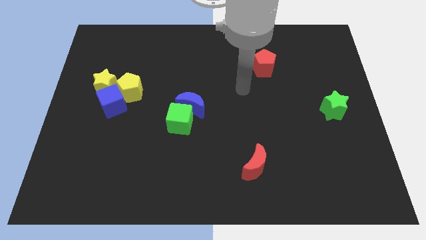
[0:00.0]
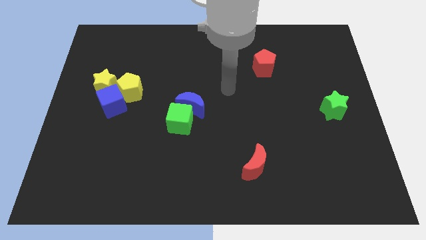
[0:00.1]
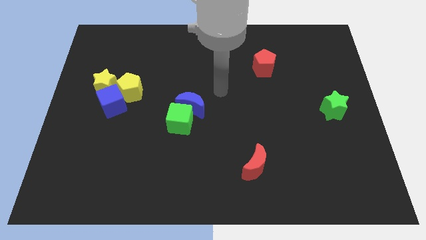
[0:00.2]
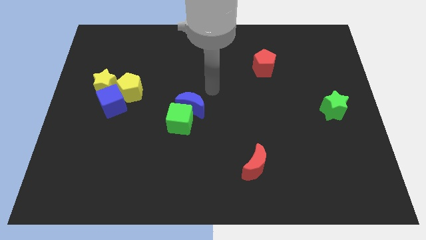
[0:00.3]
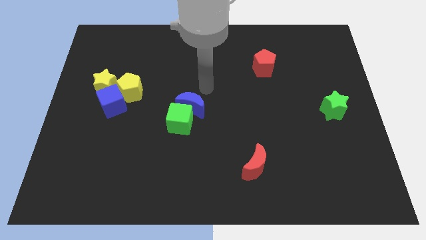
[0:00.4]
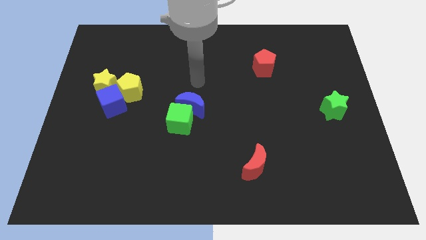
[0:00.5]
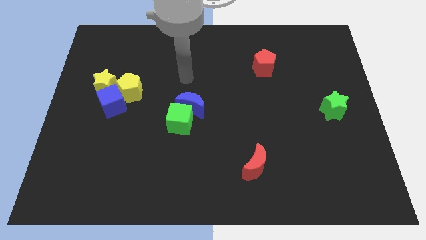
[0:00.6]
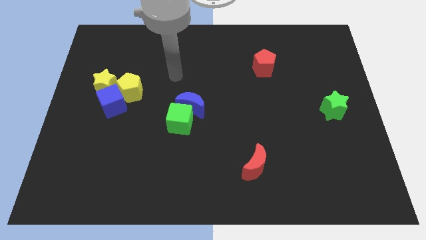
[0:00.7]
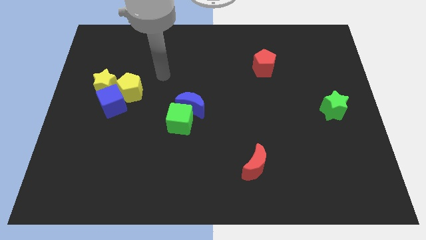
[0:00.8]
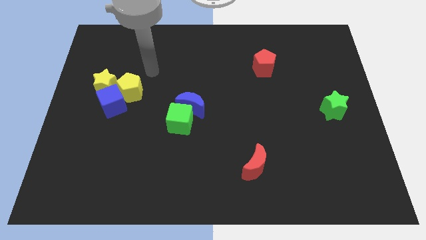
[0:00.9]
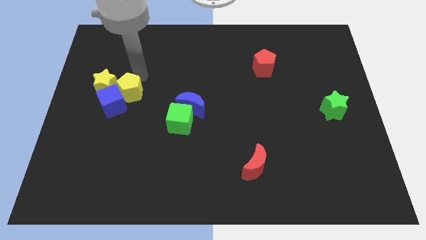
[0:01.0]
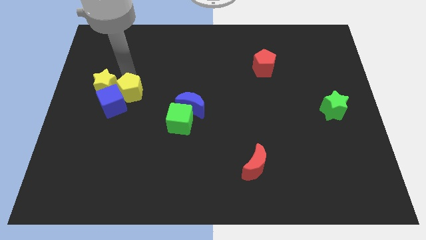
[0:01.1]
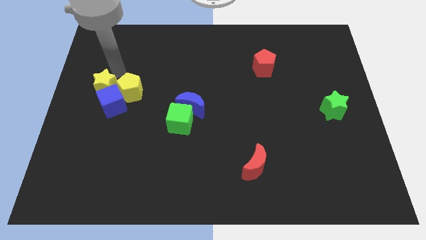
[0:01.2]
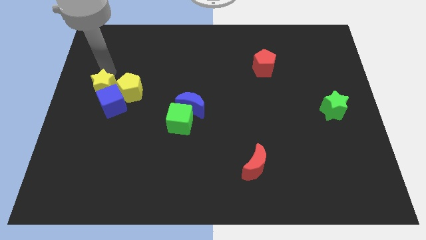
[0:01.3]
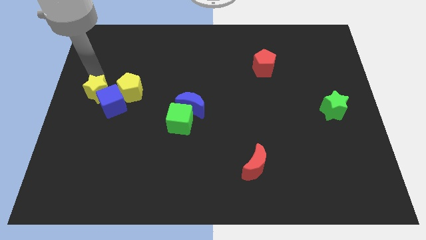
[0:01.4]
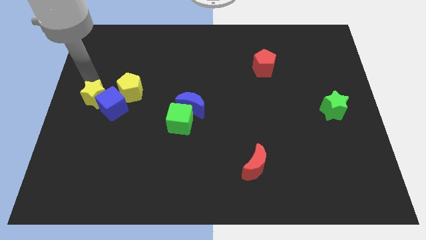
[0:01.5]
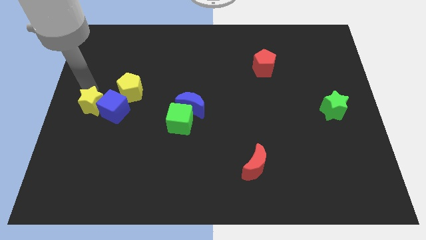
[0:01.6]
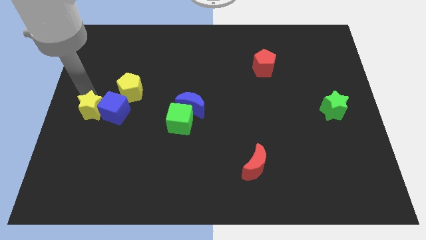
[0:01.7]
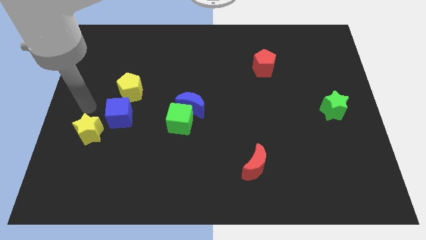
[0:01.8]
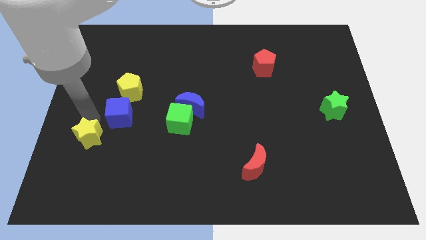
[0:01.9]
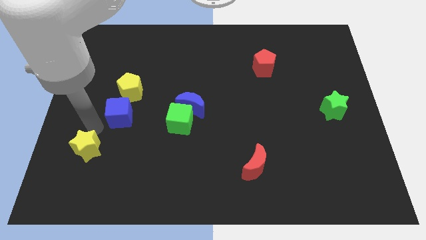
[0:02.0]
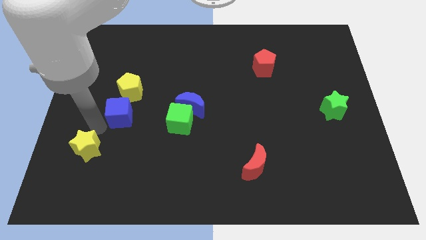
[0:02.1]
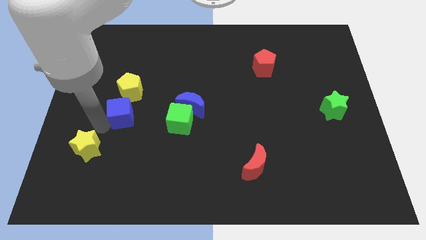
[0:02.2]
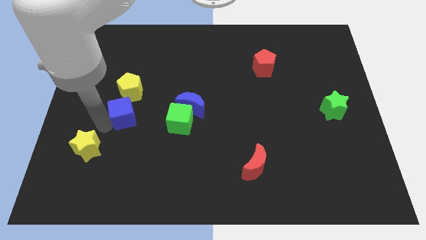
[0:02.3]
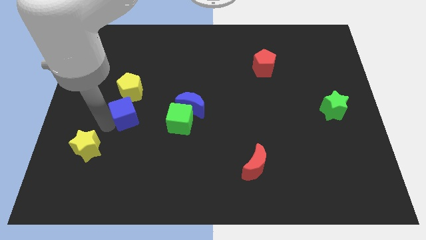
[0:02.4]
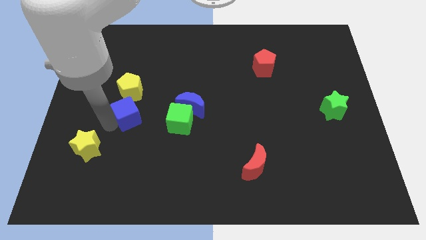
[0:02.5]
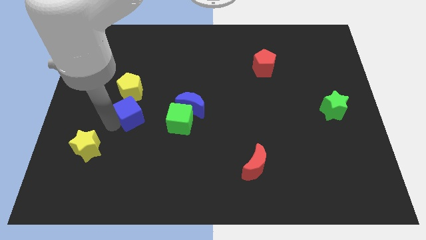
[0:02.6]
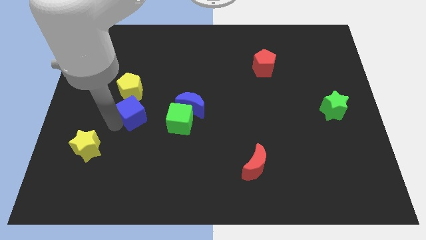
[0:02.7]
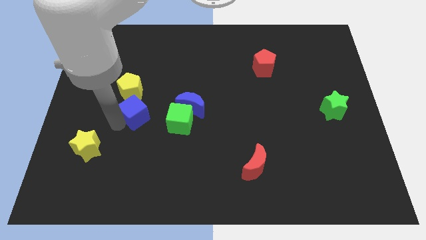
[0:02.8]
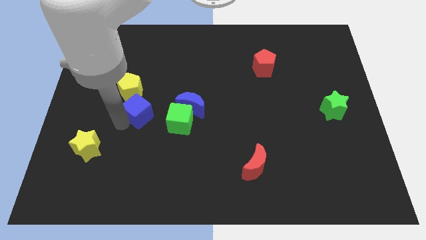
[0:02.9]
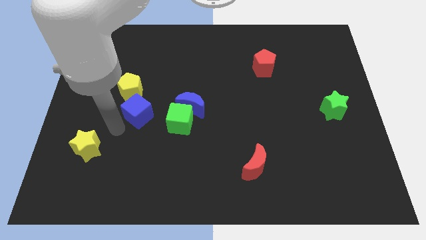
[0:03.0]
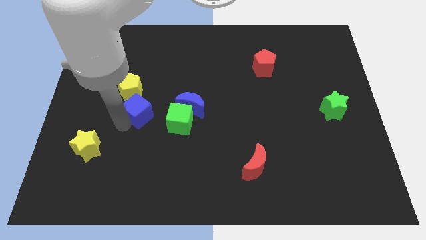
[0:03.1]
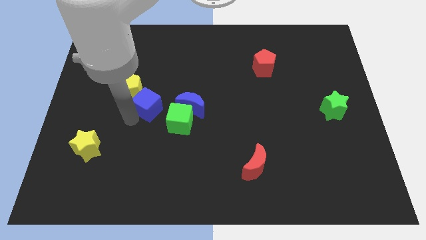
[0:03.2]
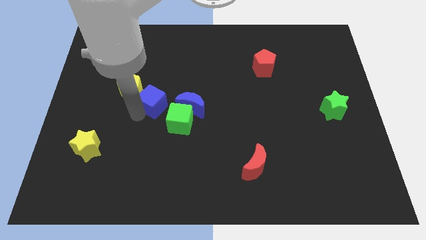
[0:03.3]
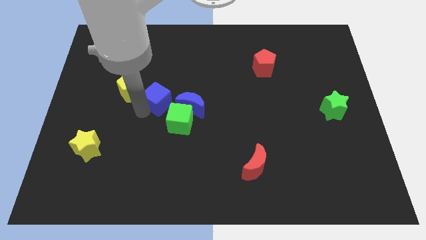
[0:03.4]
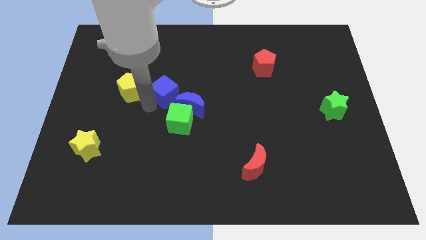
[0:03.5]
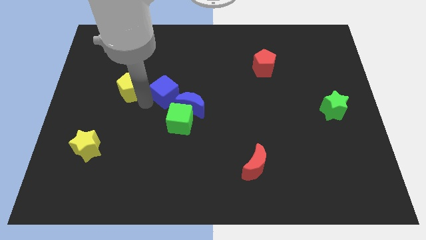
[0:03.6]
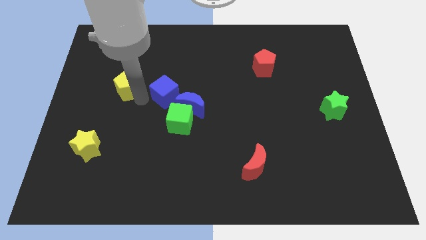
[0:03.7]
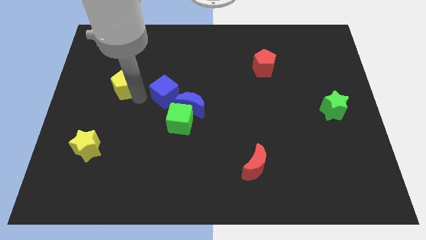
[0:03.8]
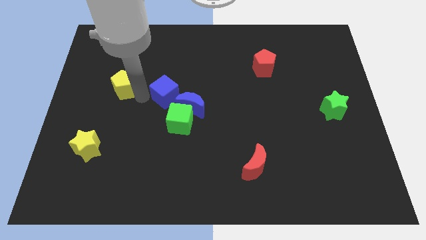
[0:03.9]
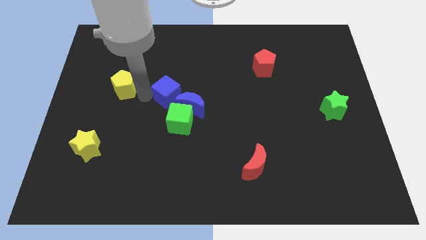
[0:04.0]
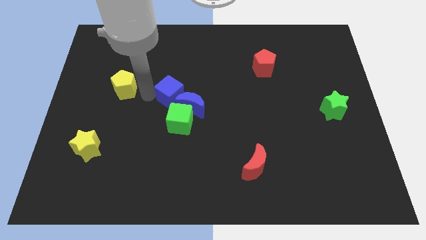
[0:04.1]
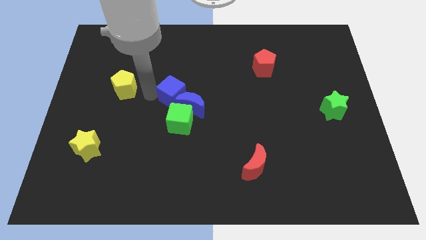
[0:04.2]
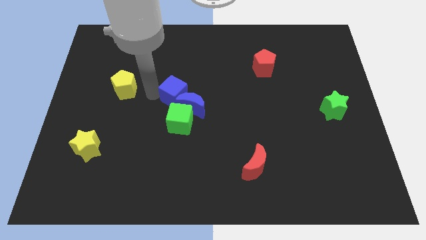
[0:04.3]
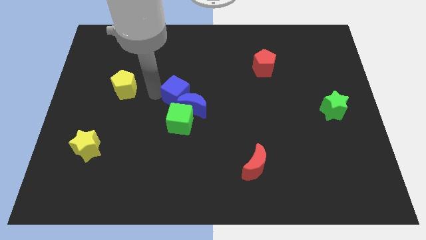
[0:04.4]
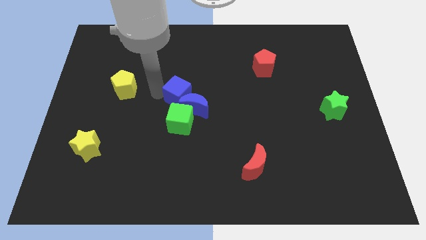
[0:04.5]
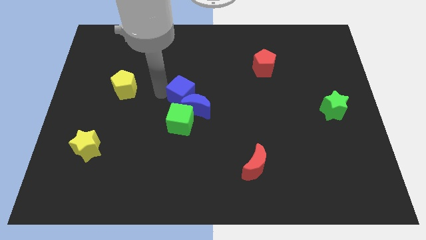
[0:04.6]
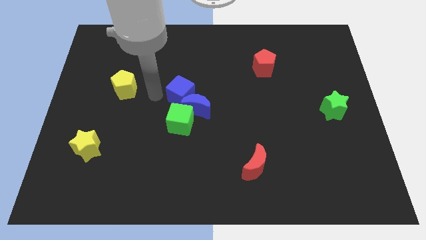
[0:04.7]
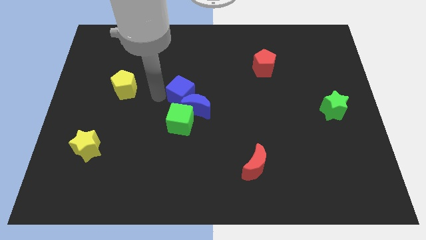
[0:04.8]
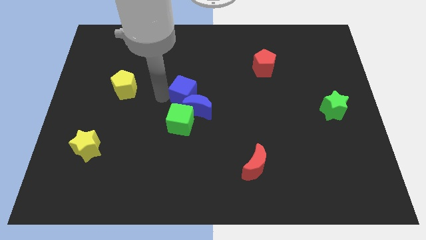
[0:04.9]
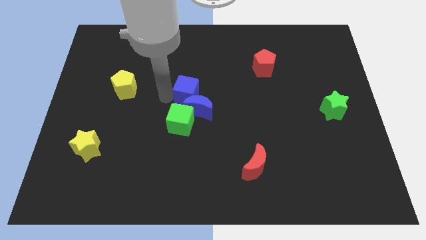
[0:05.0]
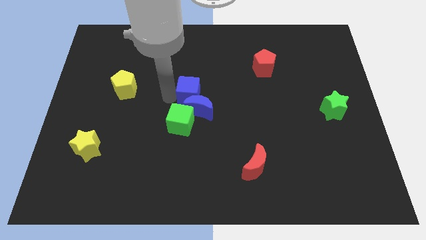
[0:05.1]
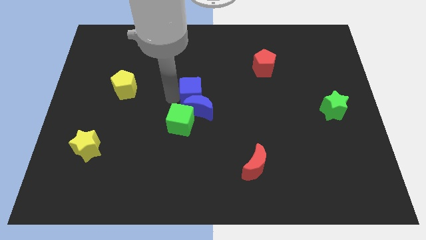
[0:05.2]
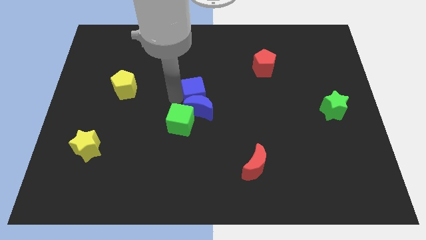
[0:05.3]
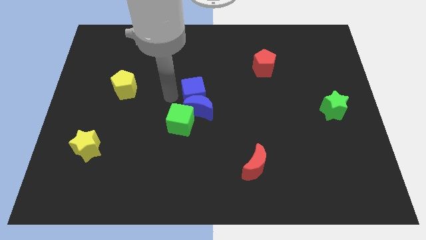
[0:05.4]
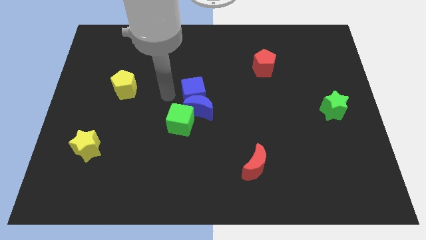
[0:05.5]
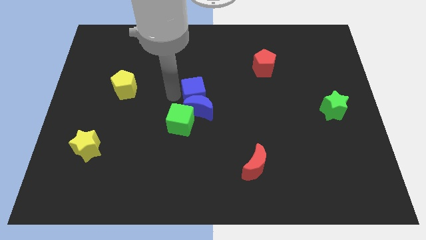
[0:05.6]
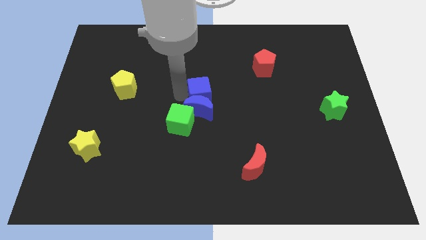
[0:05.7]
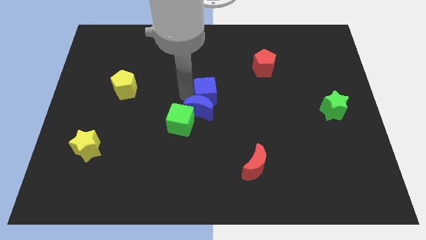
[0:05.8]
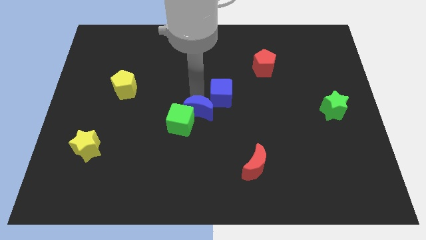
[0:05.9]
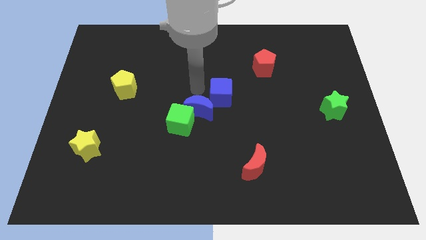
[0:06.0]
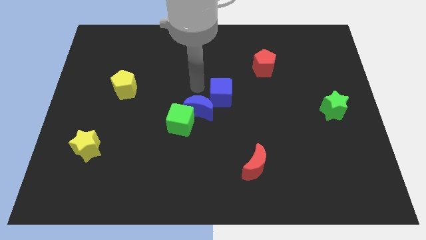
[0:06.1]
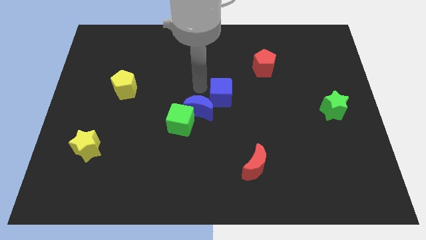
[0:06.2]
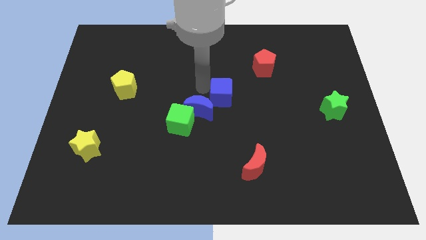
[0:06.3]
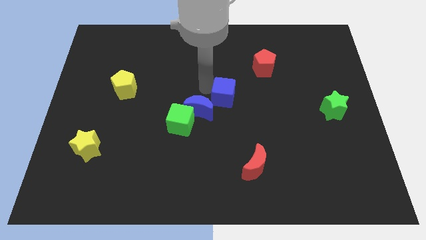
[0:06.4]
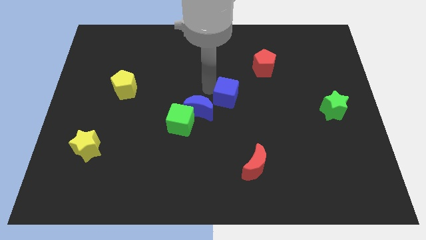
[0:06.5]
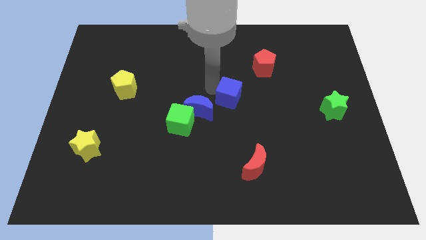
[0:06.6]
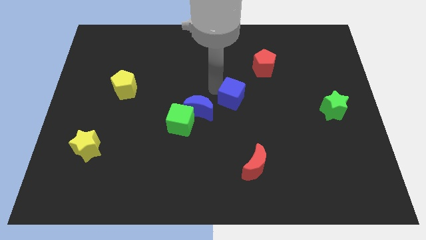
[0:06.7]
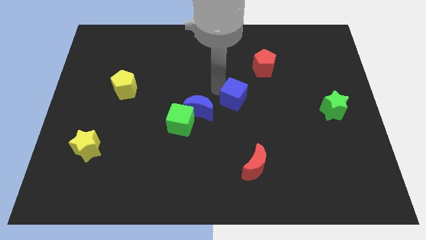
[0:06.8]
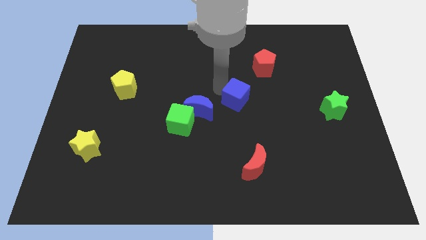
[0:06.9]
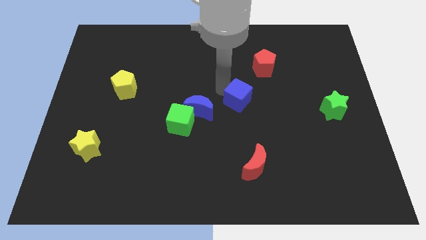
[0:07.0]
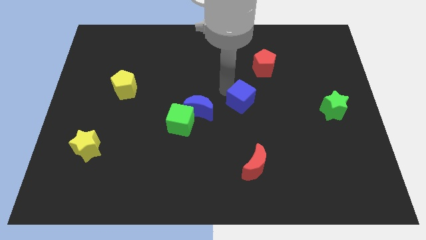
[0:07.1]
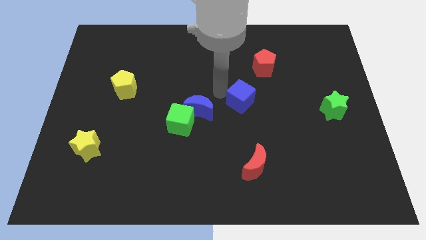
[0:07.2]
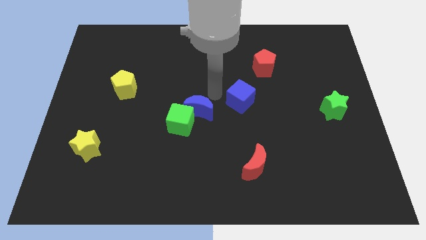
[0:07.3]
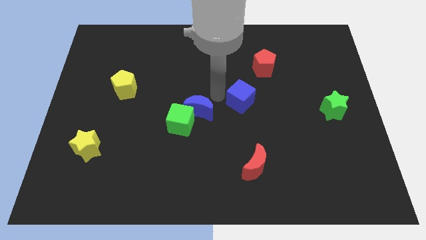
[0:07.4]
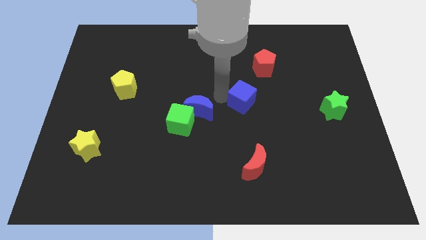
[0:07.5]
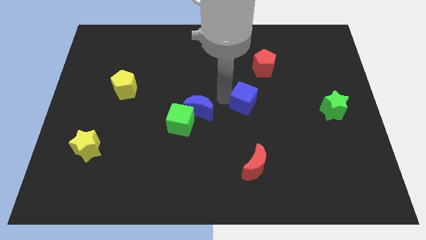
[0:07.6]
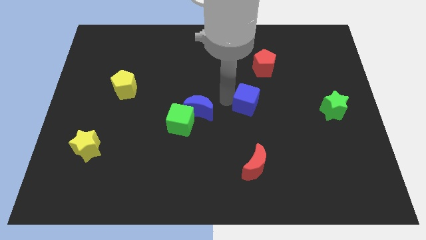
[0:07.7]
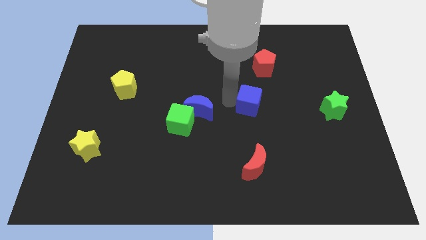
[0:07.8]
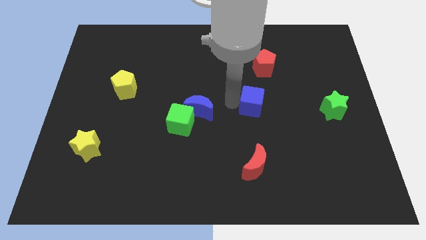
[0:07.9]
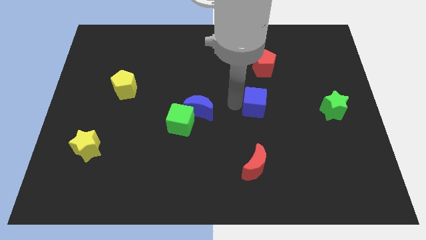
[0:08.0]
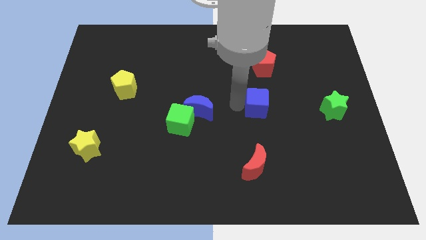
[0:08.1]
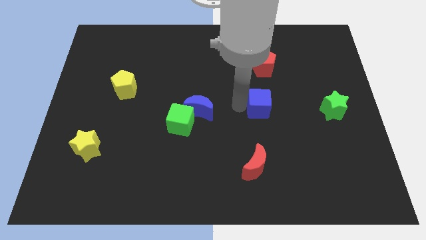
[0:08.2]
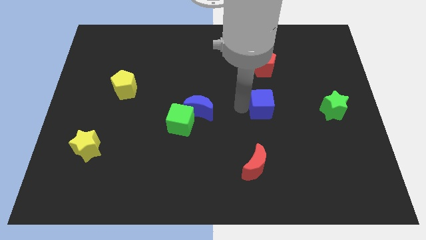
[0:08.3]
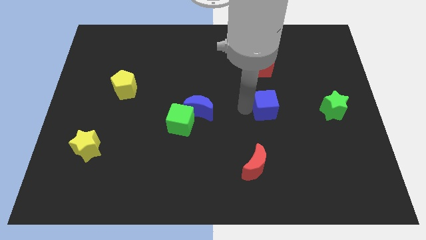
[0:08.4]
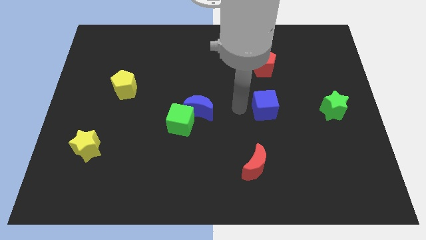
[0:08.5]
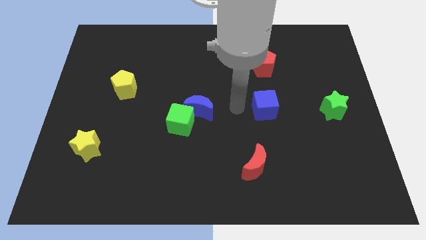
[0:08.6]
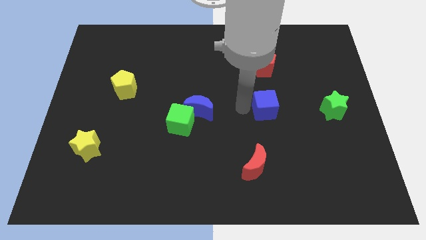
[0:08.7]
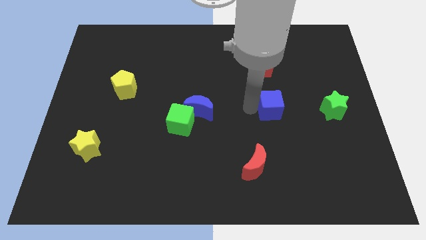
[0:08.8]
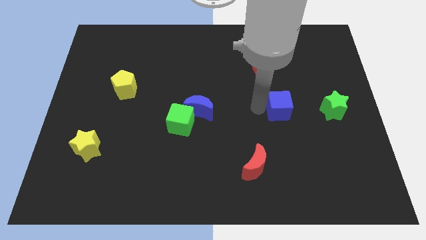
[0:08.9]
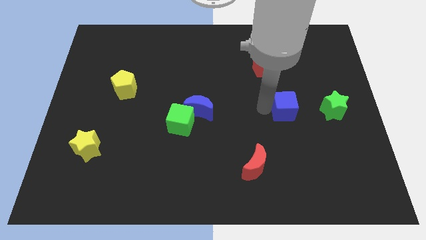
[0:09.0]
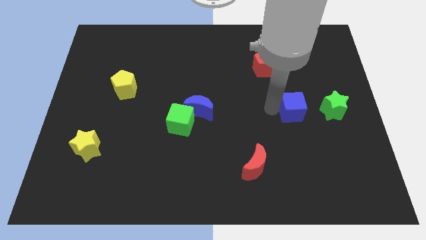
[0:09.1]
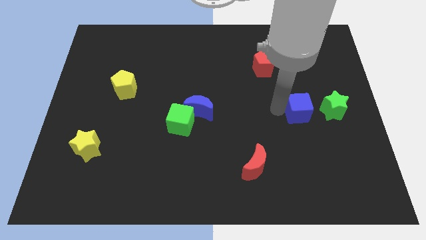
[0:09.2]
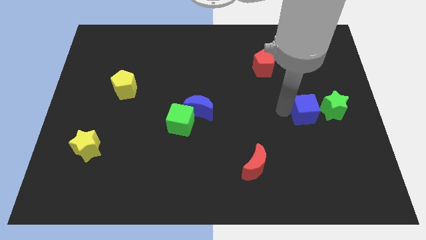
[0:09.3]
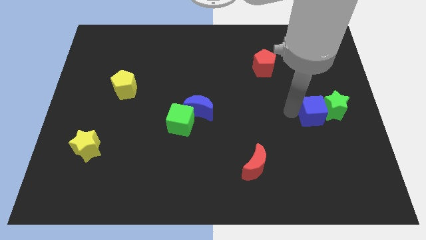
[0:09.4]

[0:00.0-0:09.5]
move the blue cube towards the green star
